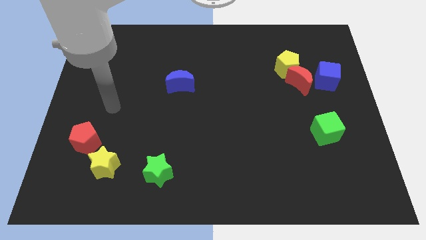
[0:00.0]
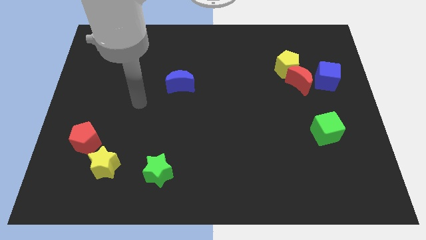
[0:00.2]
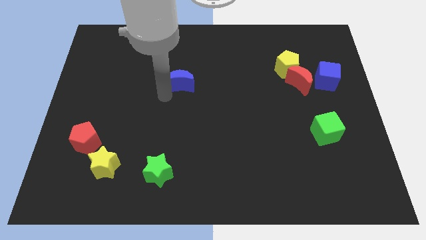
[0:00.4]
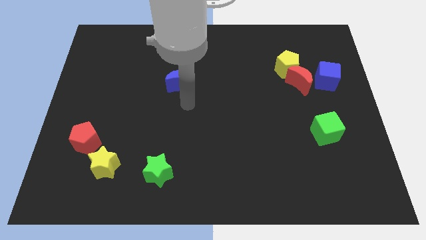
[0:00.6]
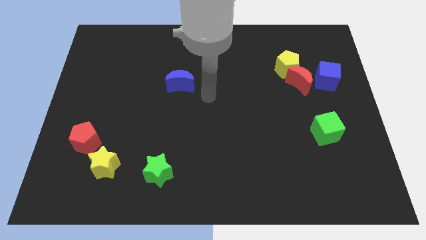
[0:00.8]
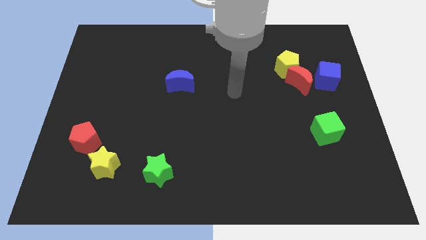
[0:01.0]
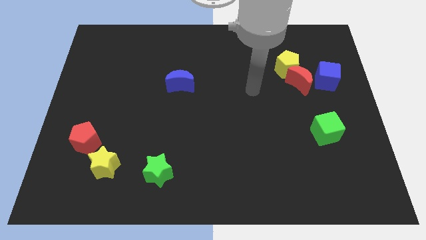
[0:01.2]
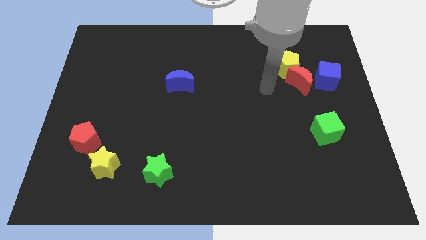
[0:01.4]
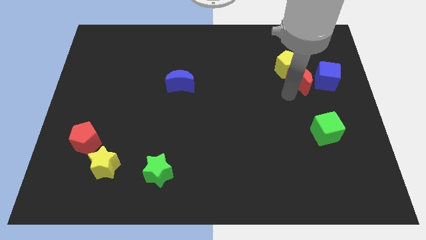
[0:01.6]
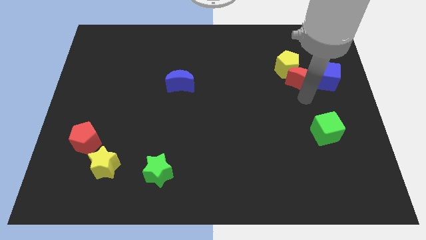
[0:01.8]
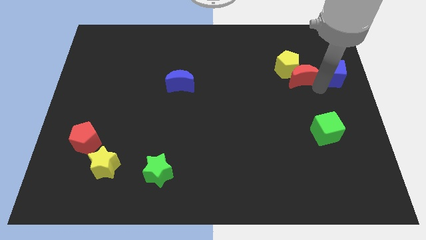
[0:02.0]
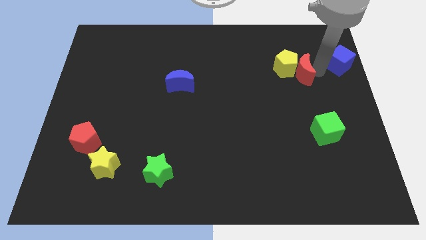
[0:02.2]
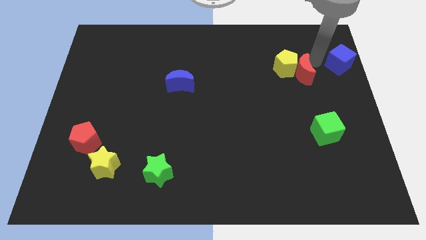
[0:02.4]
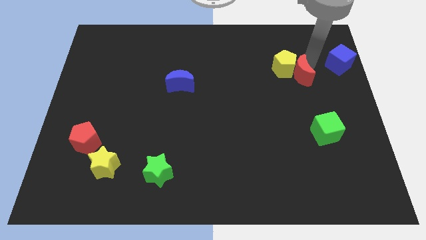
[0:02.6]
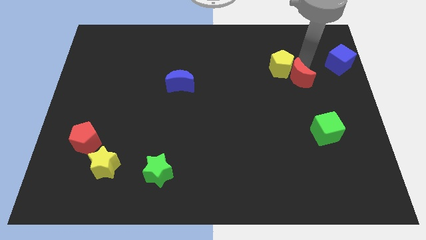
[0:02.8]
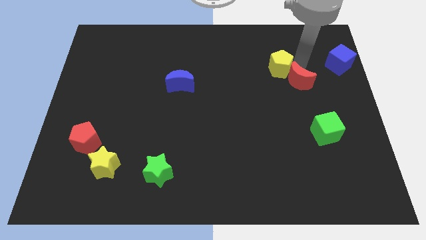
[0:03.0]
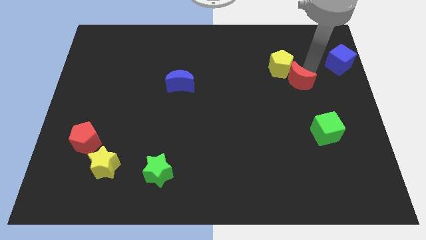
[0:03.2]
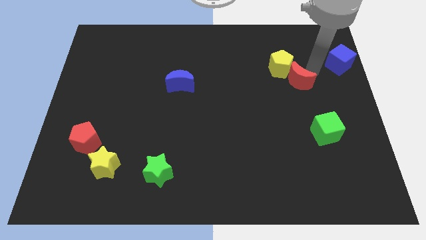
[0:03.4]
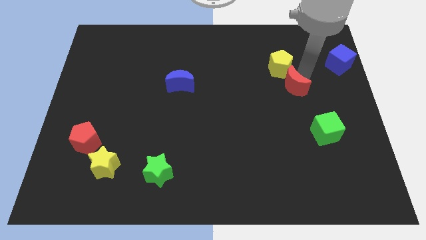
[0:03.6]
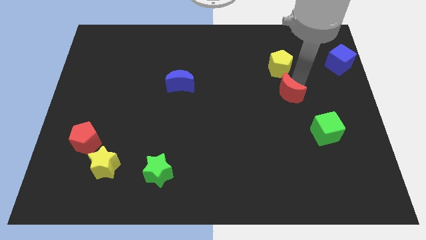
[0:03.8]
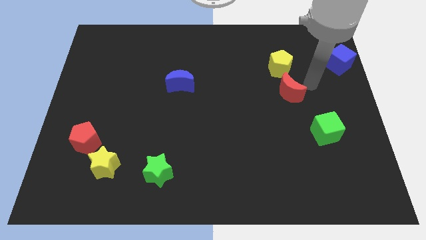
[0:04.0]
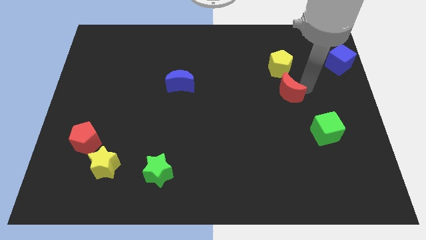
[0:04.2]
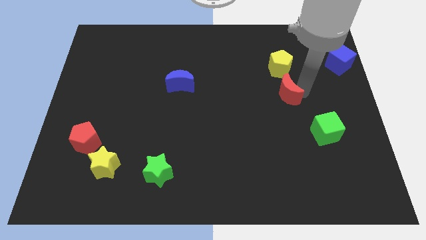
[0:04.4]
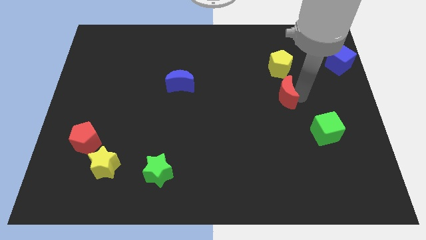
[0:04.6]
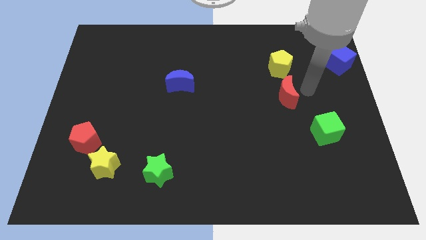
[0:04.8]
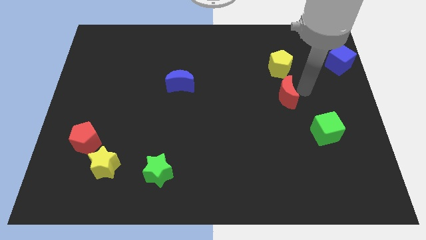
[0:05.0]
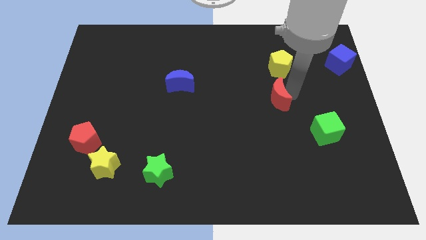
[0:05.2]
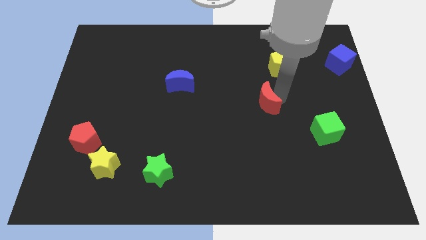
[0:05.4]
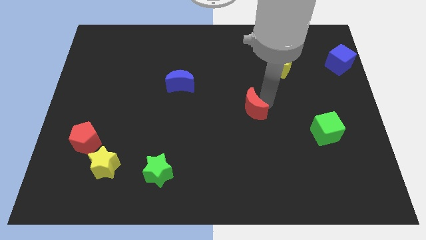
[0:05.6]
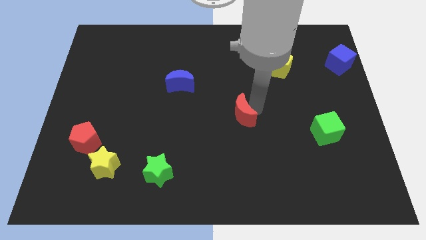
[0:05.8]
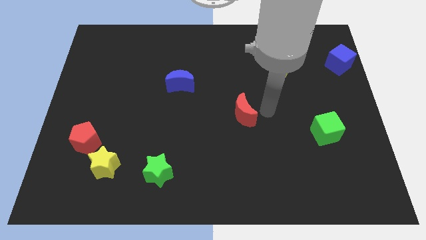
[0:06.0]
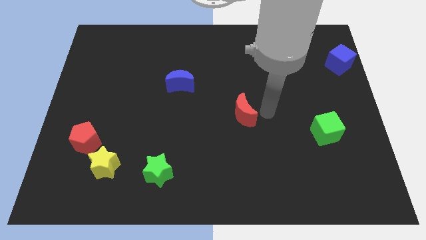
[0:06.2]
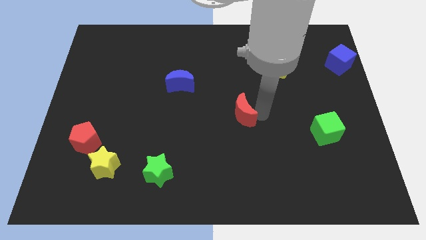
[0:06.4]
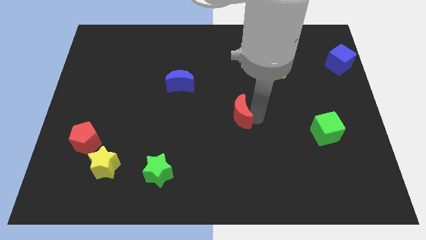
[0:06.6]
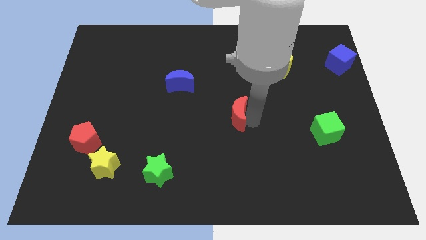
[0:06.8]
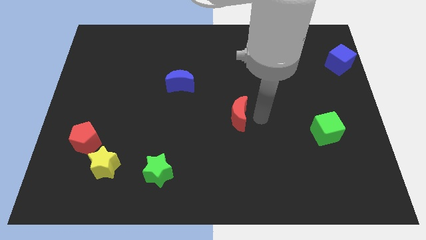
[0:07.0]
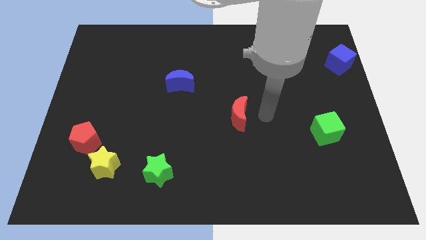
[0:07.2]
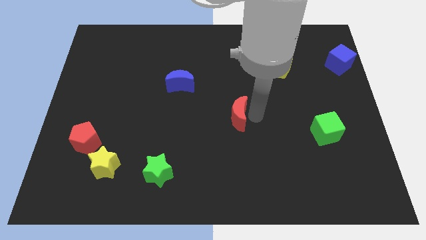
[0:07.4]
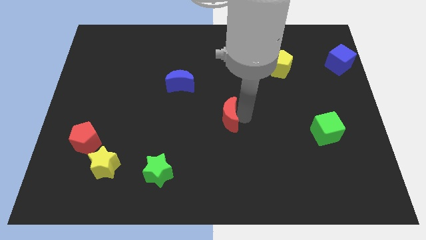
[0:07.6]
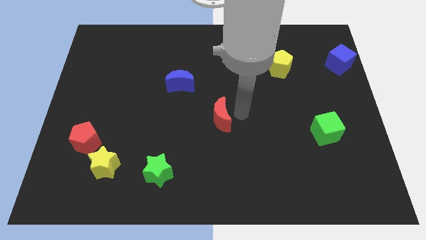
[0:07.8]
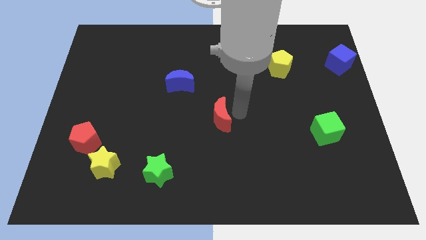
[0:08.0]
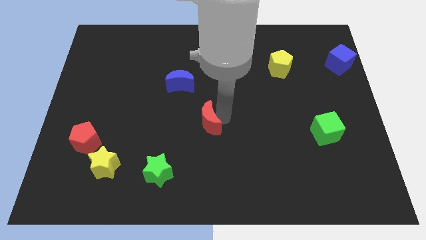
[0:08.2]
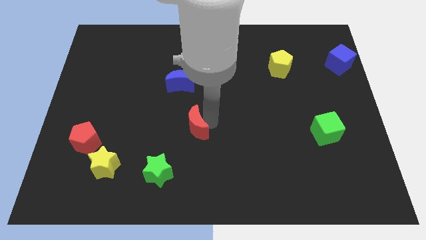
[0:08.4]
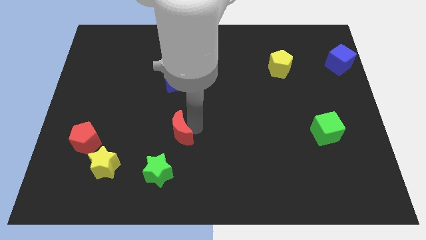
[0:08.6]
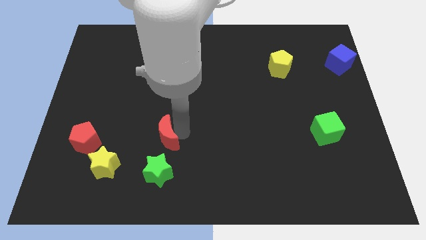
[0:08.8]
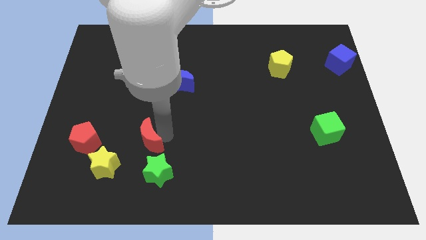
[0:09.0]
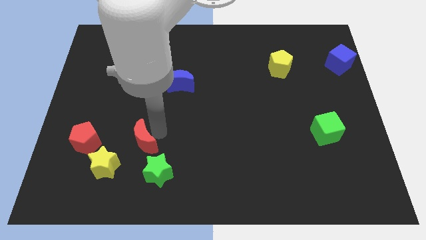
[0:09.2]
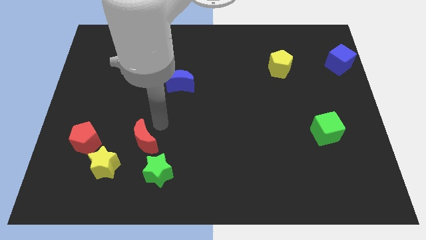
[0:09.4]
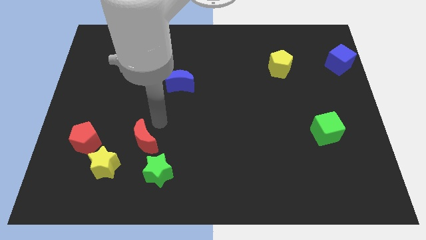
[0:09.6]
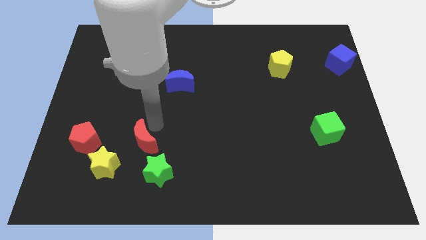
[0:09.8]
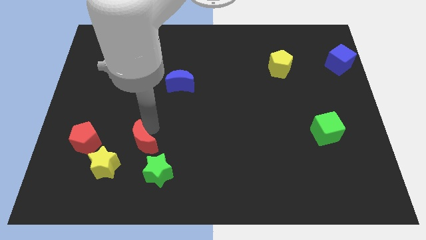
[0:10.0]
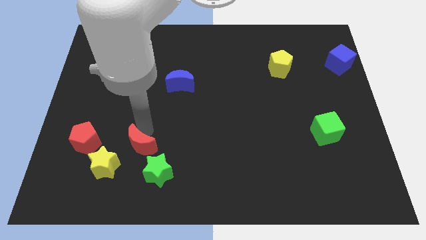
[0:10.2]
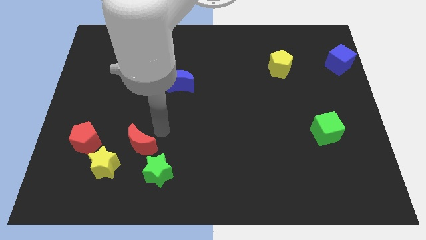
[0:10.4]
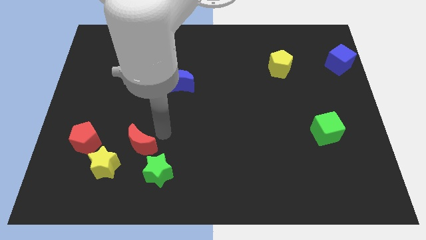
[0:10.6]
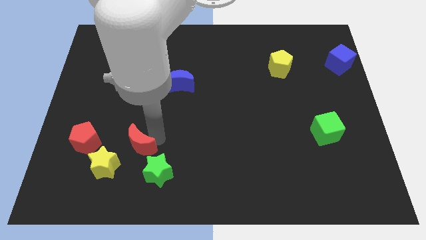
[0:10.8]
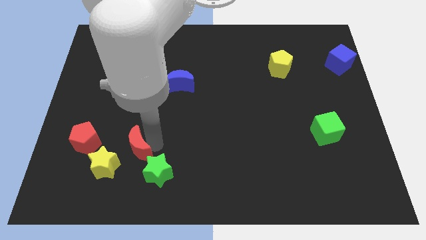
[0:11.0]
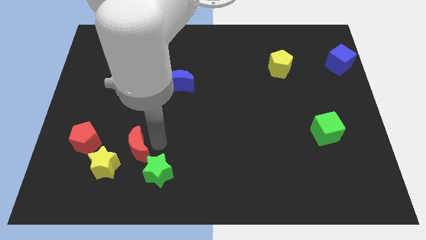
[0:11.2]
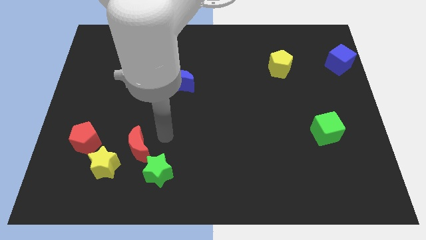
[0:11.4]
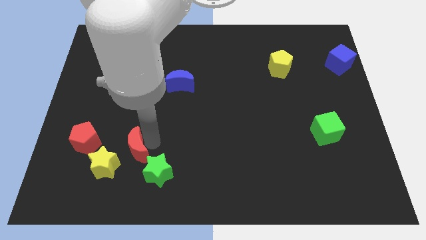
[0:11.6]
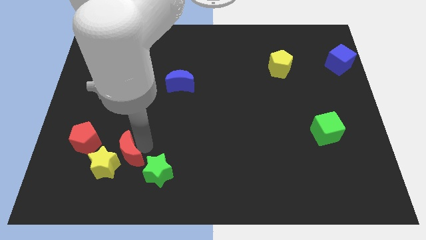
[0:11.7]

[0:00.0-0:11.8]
move the red moon towards the yellow star

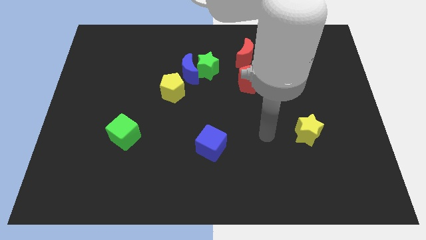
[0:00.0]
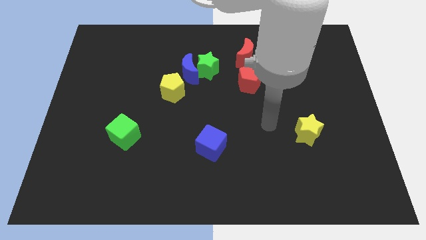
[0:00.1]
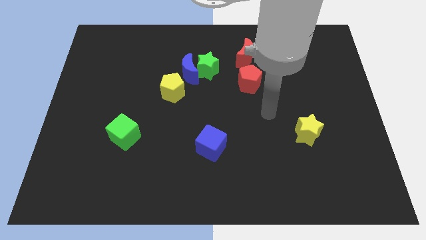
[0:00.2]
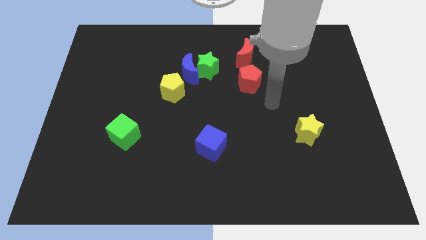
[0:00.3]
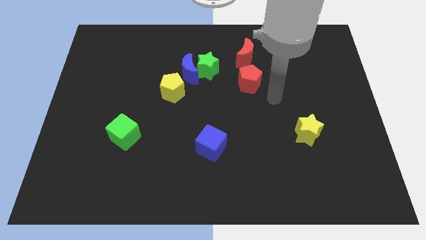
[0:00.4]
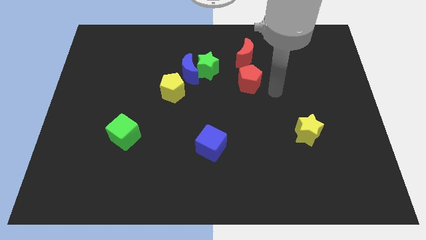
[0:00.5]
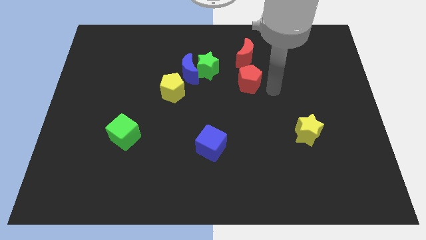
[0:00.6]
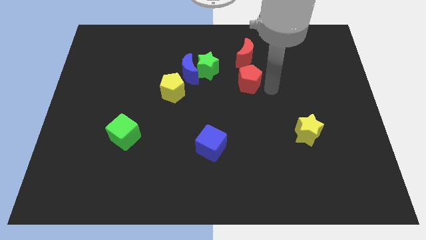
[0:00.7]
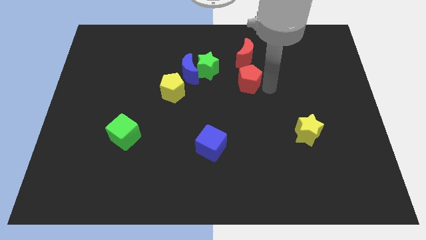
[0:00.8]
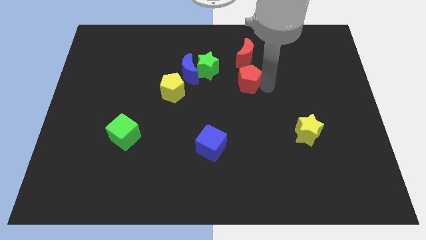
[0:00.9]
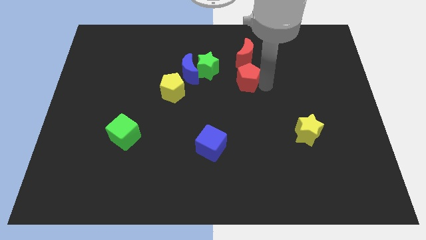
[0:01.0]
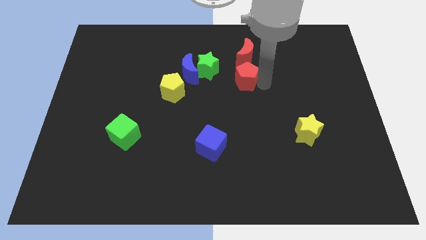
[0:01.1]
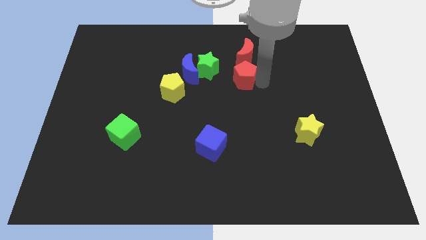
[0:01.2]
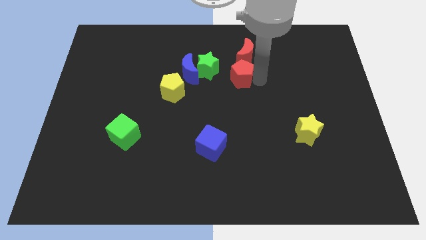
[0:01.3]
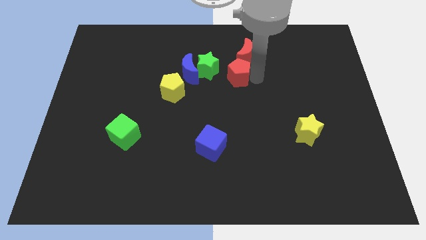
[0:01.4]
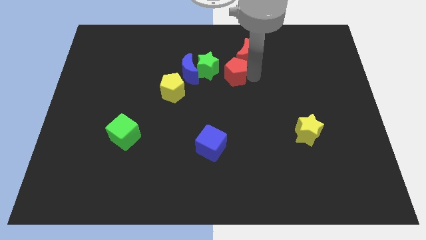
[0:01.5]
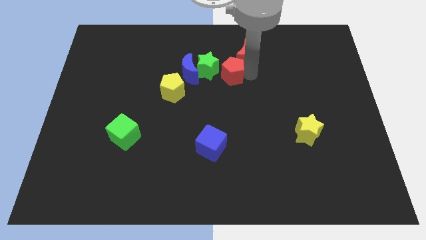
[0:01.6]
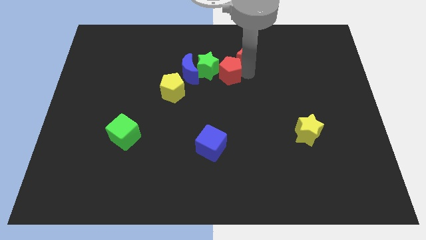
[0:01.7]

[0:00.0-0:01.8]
push the red pentagon to the green star
